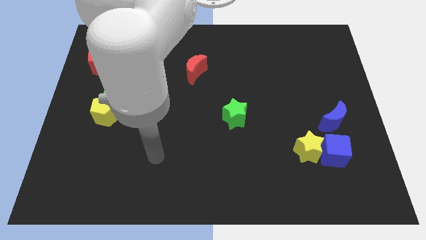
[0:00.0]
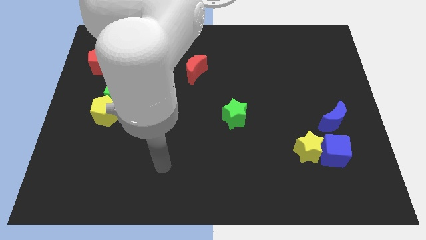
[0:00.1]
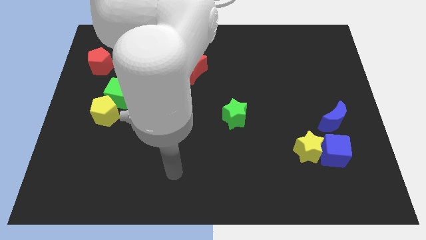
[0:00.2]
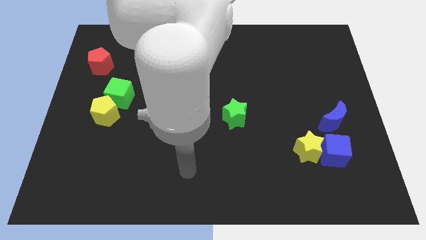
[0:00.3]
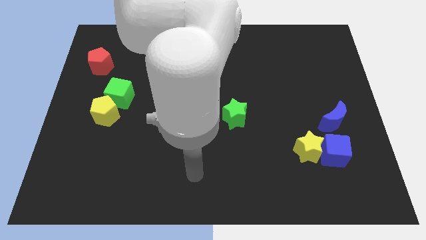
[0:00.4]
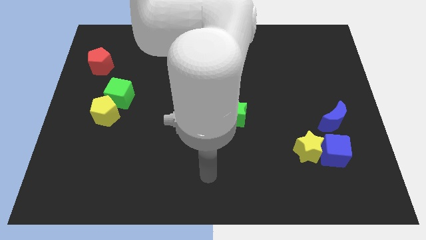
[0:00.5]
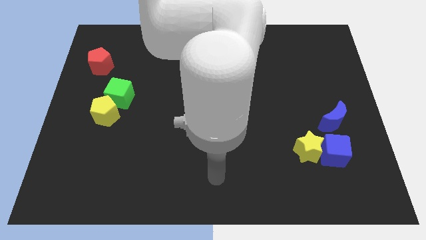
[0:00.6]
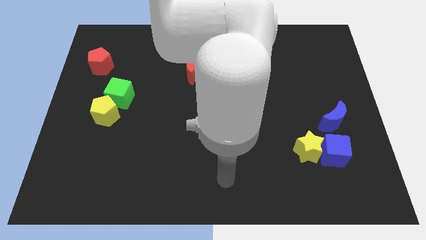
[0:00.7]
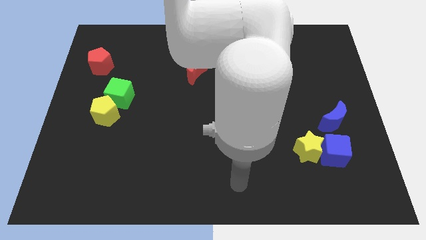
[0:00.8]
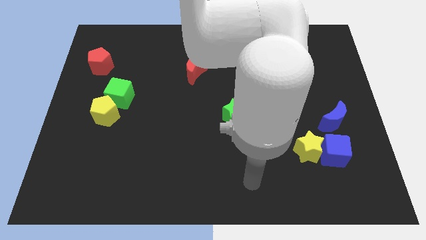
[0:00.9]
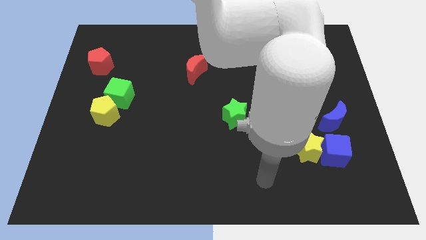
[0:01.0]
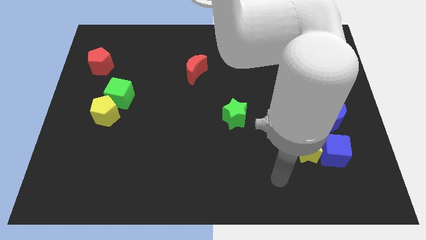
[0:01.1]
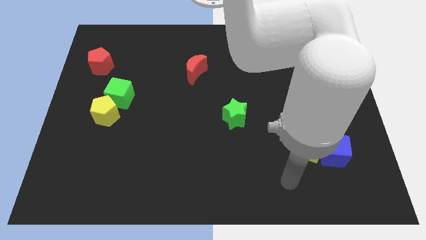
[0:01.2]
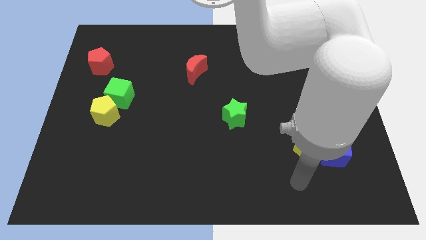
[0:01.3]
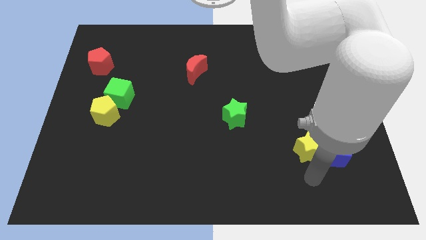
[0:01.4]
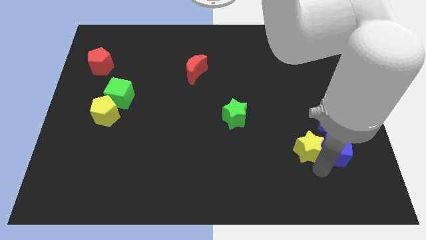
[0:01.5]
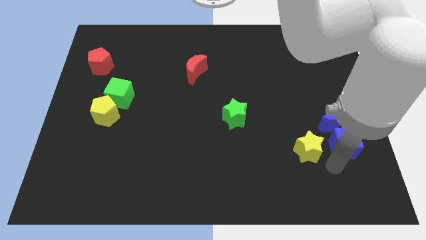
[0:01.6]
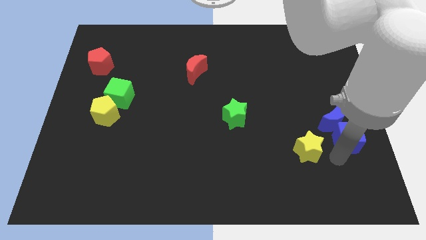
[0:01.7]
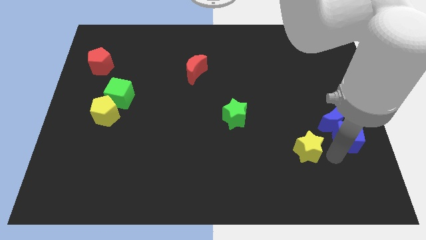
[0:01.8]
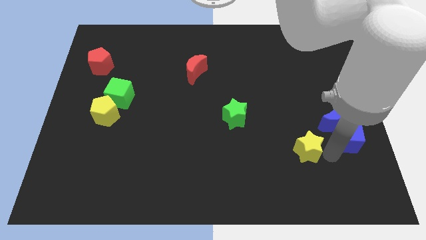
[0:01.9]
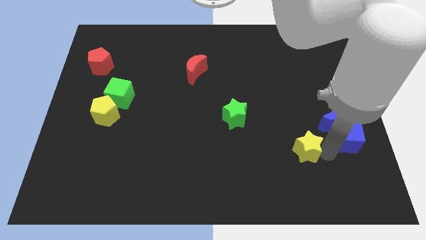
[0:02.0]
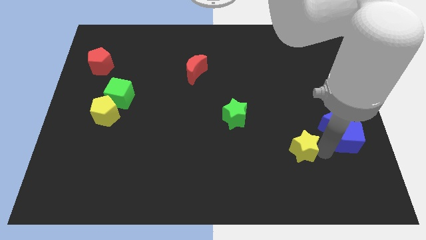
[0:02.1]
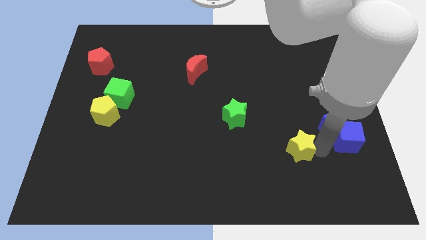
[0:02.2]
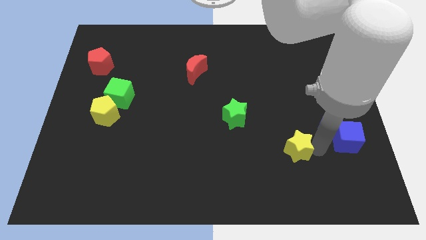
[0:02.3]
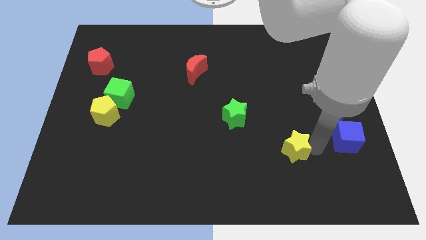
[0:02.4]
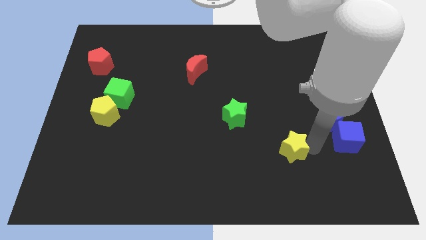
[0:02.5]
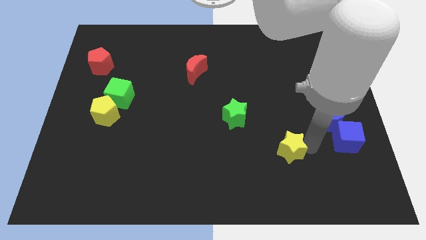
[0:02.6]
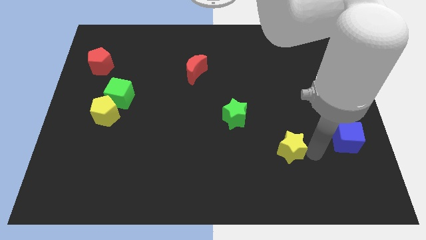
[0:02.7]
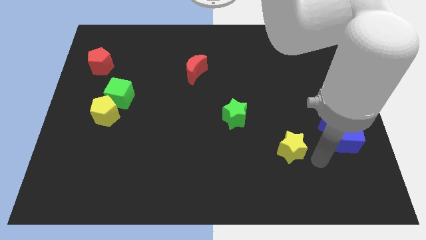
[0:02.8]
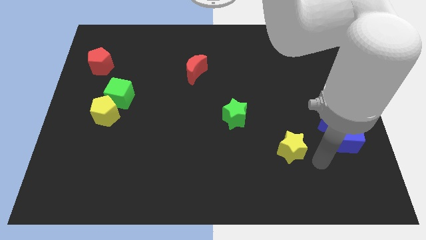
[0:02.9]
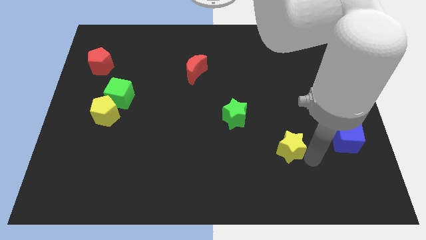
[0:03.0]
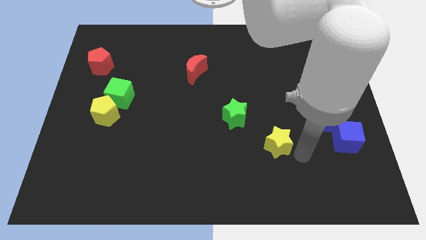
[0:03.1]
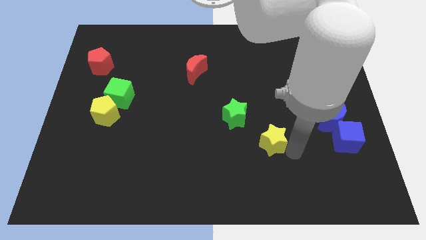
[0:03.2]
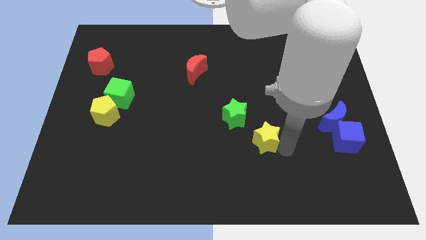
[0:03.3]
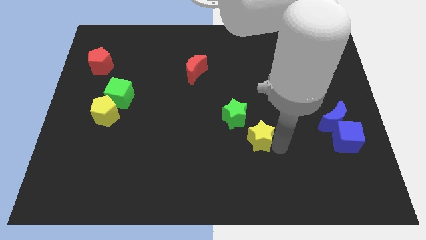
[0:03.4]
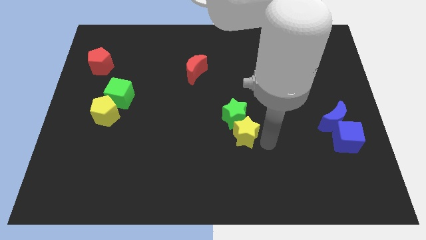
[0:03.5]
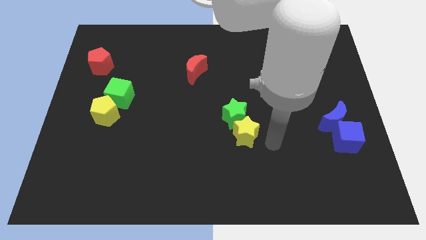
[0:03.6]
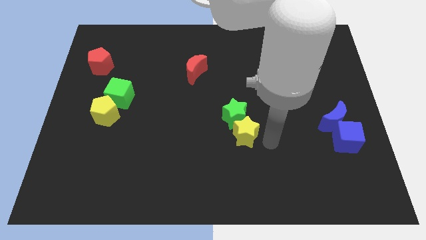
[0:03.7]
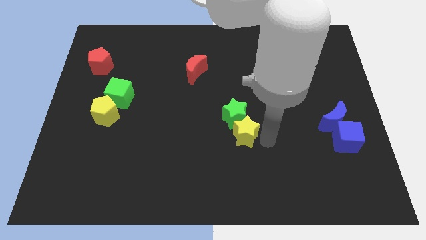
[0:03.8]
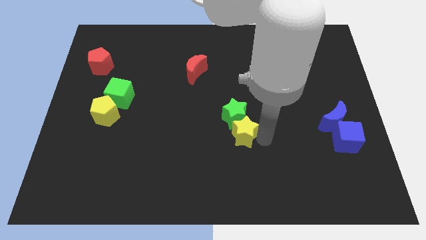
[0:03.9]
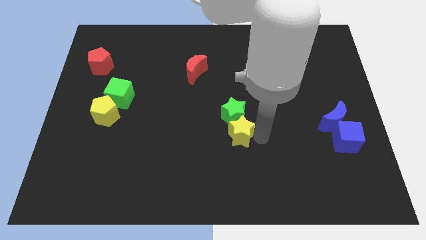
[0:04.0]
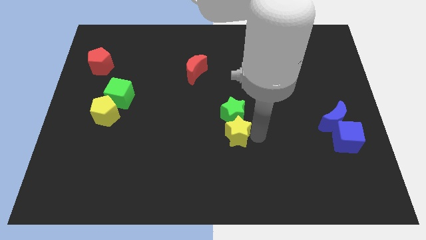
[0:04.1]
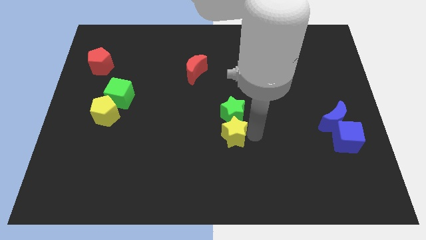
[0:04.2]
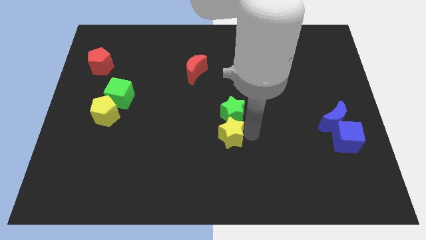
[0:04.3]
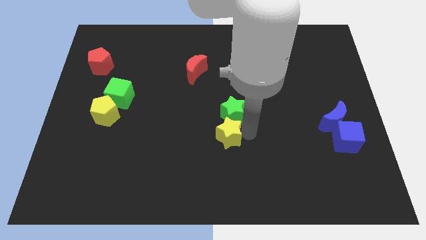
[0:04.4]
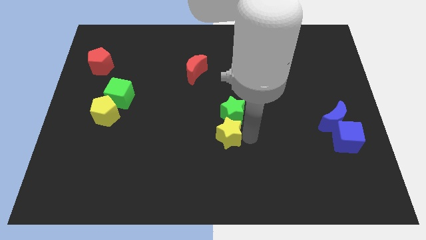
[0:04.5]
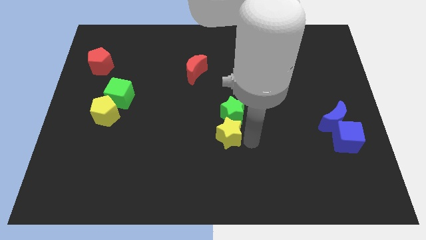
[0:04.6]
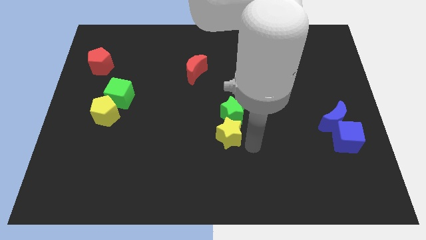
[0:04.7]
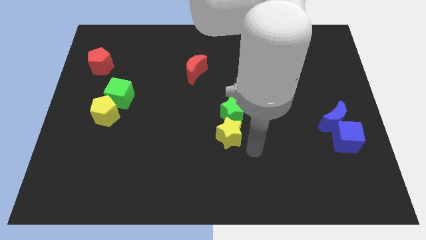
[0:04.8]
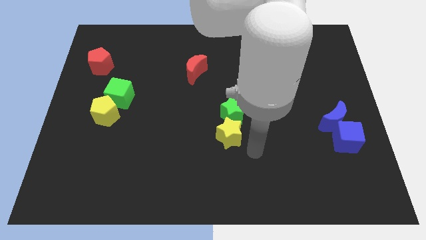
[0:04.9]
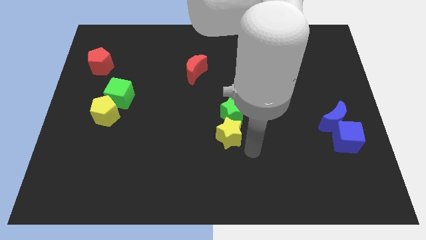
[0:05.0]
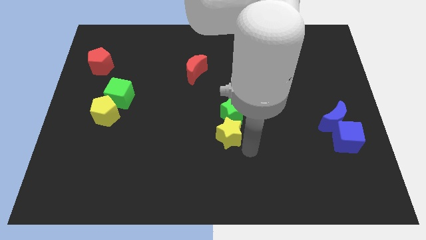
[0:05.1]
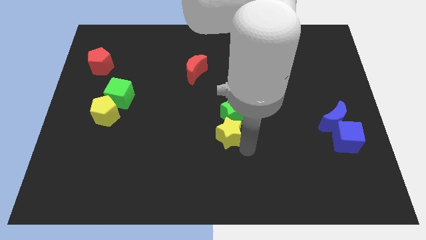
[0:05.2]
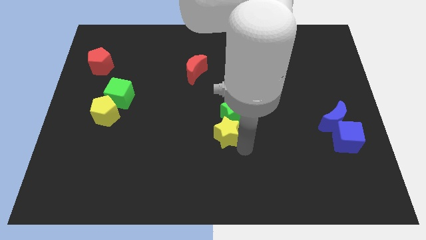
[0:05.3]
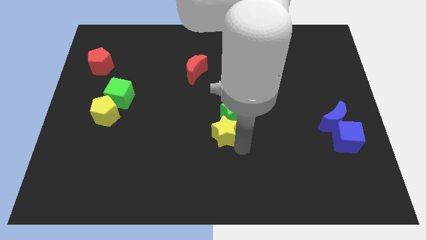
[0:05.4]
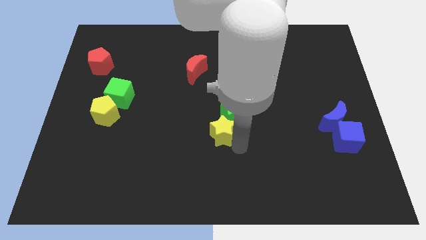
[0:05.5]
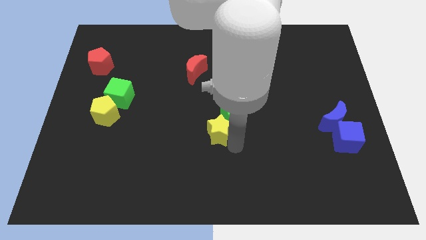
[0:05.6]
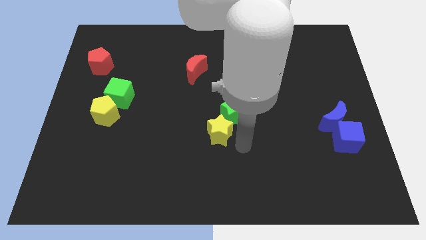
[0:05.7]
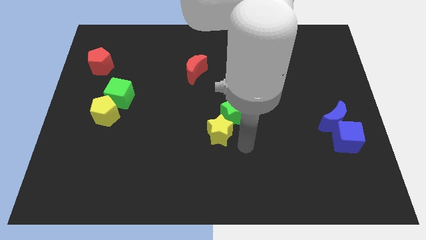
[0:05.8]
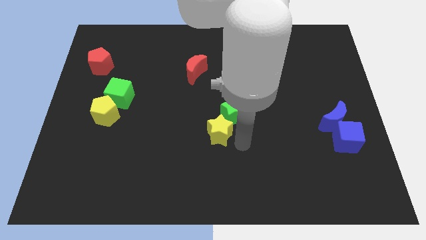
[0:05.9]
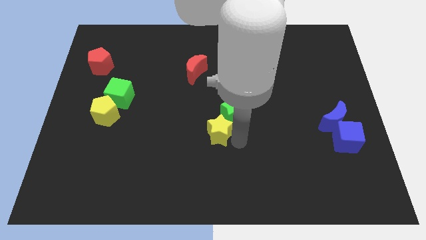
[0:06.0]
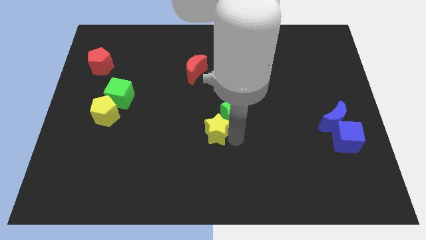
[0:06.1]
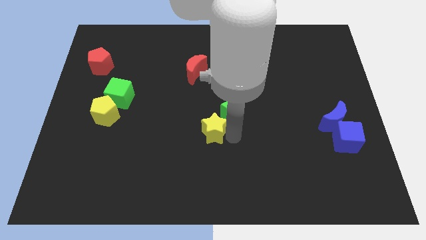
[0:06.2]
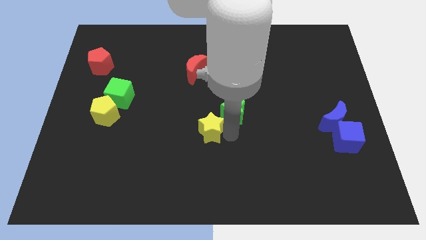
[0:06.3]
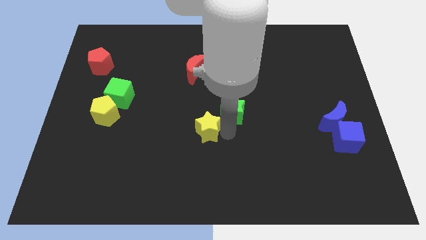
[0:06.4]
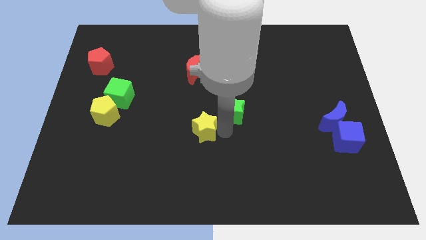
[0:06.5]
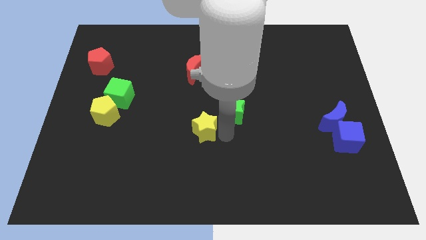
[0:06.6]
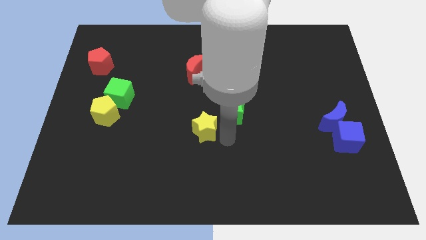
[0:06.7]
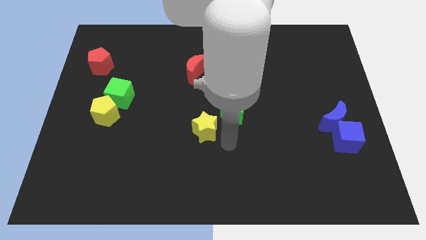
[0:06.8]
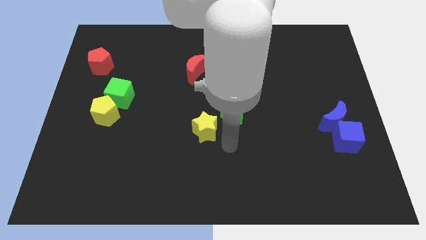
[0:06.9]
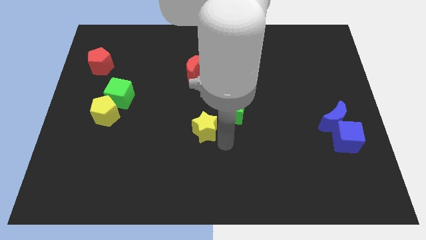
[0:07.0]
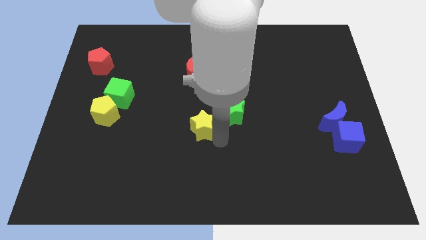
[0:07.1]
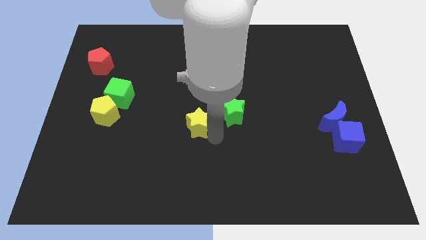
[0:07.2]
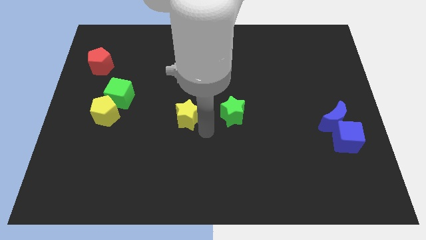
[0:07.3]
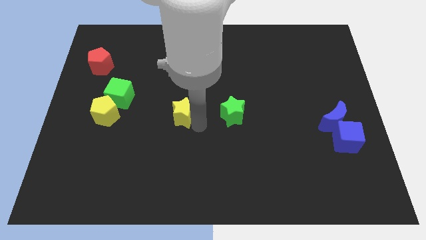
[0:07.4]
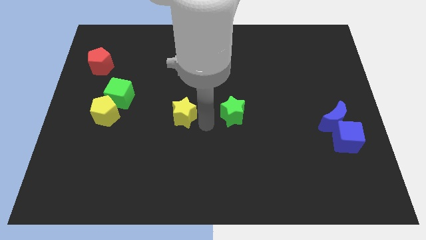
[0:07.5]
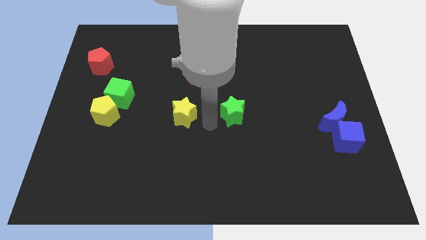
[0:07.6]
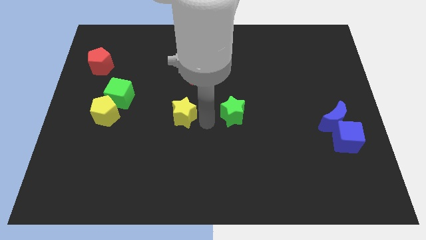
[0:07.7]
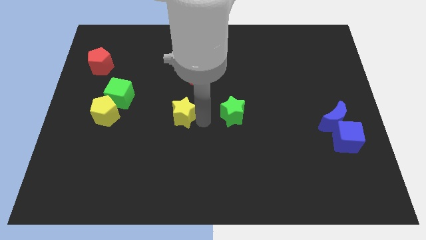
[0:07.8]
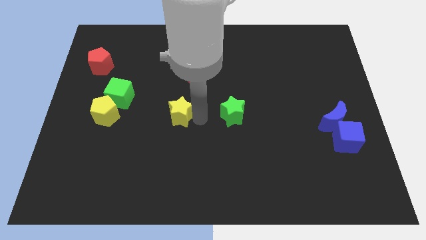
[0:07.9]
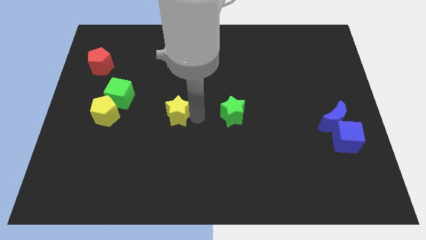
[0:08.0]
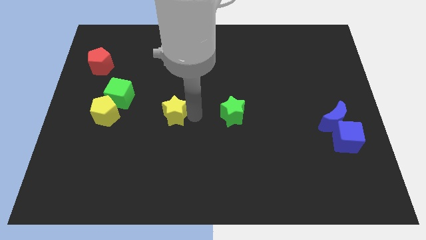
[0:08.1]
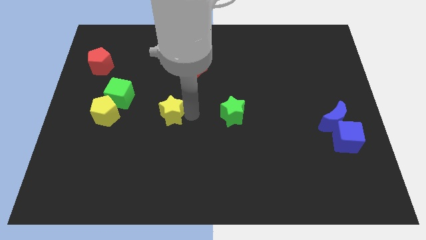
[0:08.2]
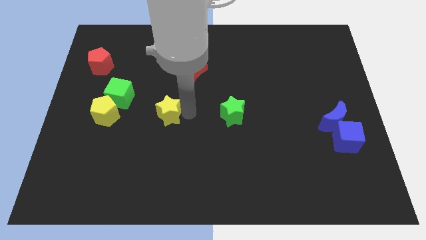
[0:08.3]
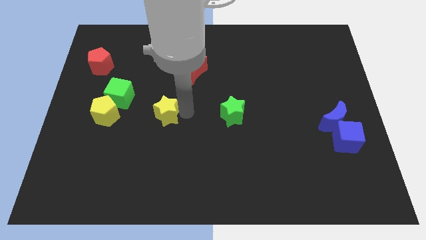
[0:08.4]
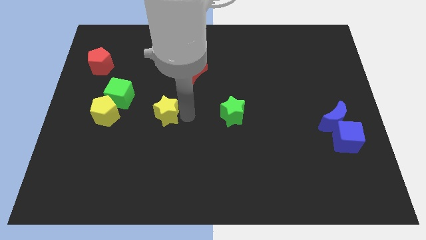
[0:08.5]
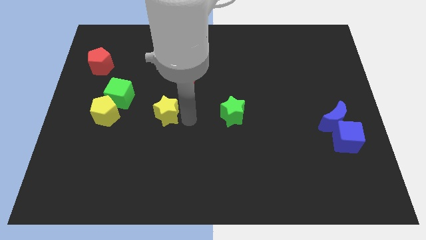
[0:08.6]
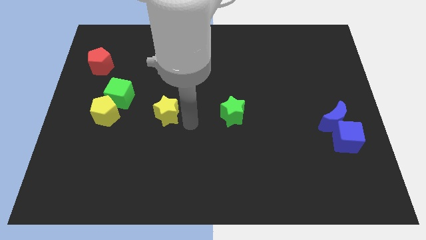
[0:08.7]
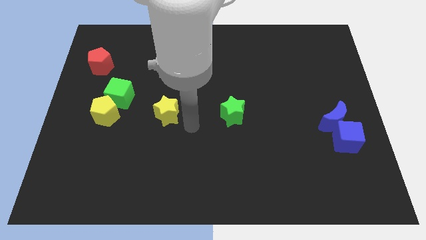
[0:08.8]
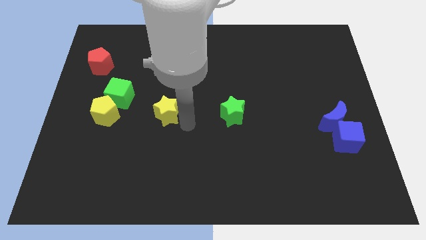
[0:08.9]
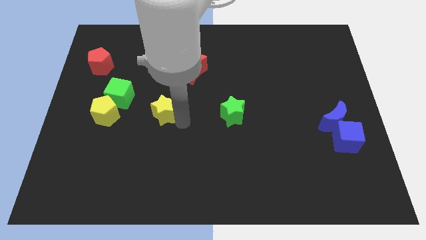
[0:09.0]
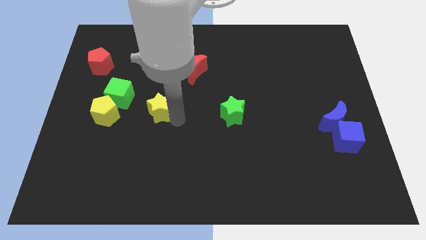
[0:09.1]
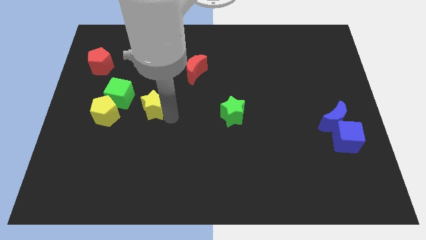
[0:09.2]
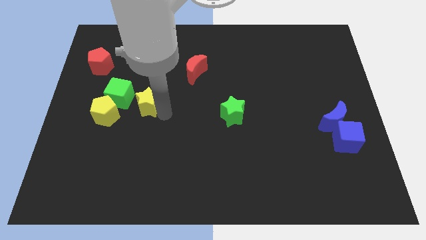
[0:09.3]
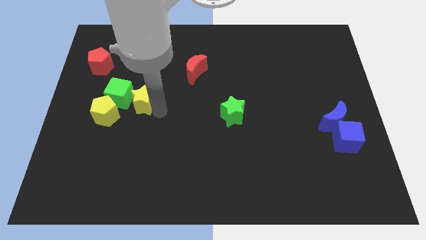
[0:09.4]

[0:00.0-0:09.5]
move the yellow star towards the green cube
